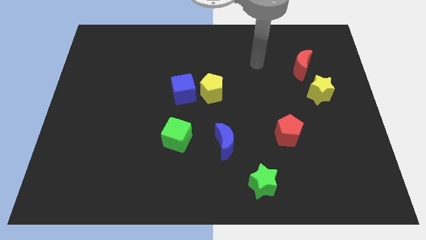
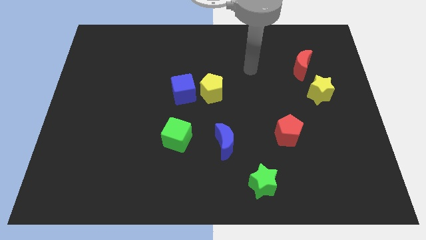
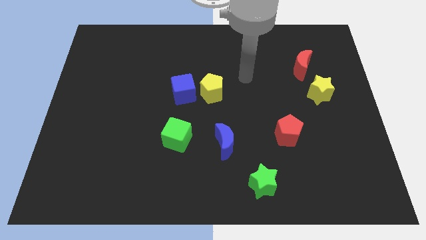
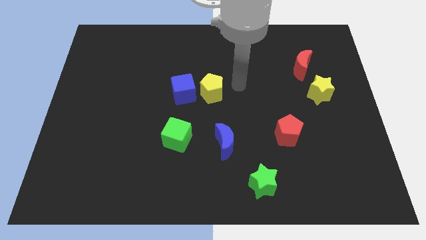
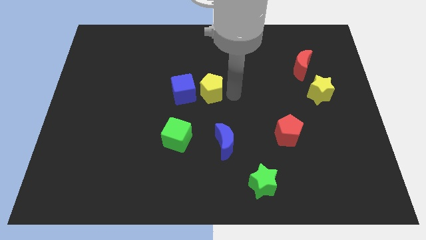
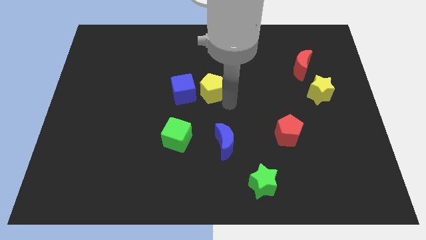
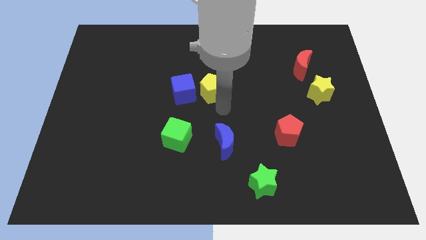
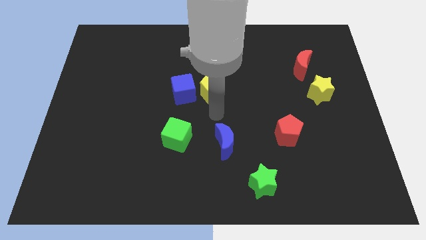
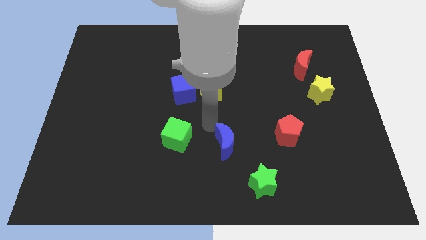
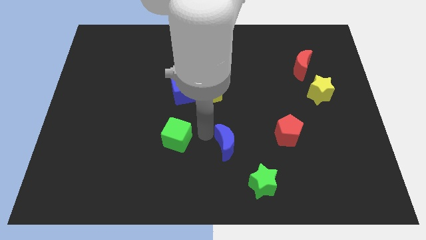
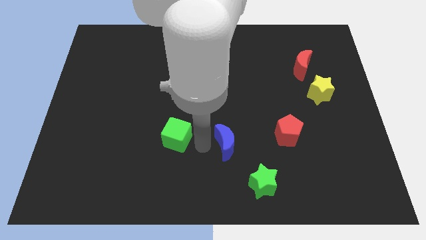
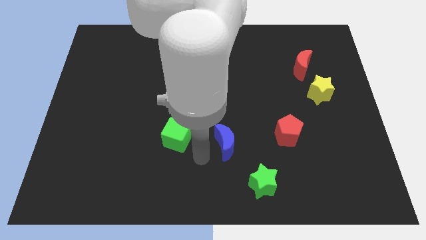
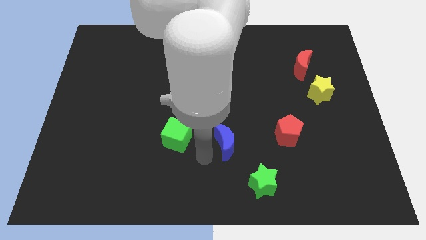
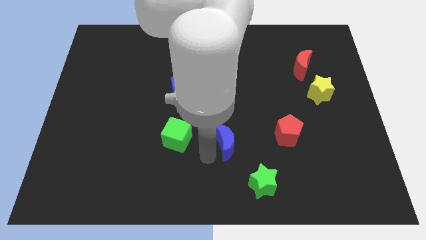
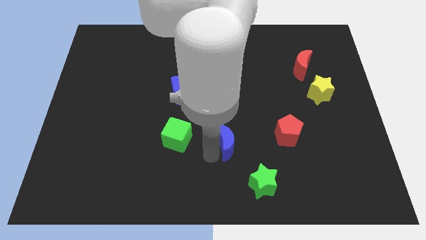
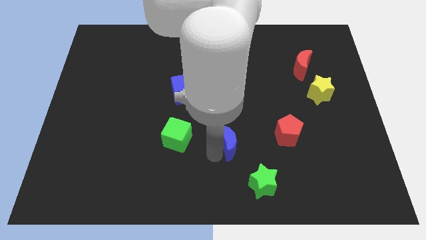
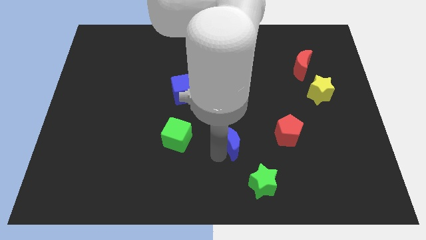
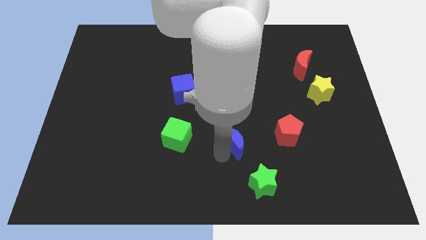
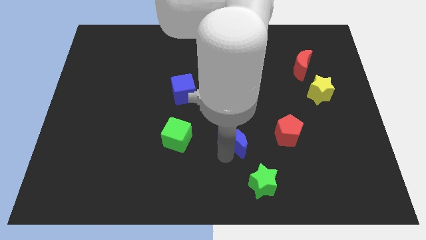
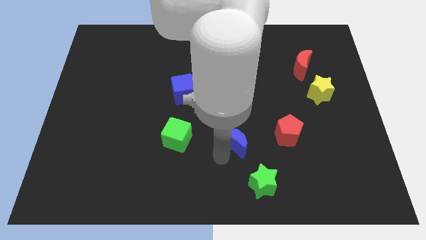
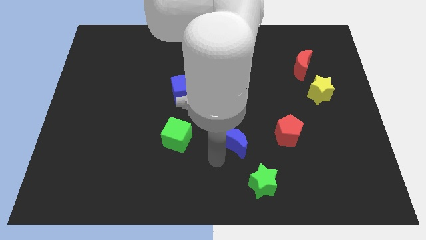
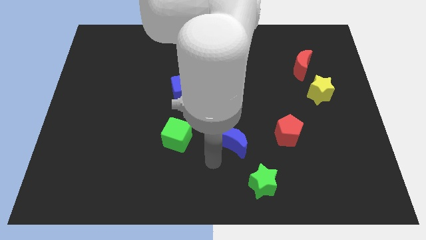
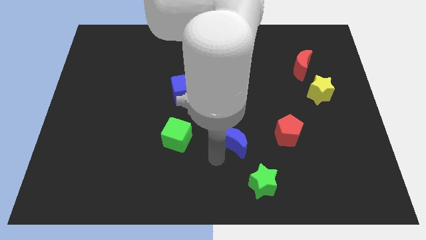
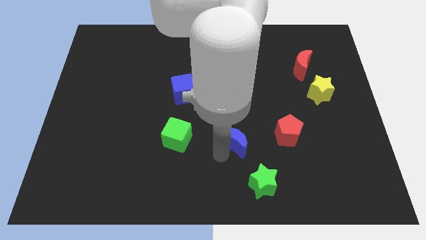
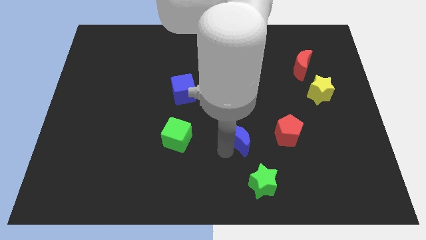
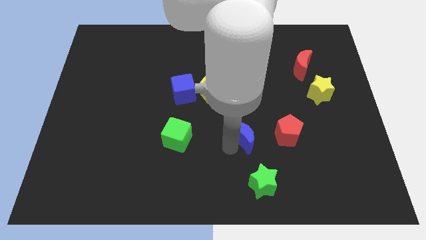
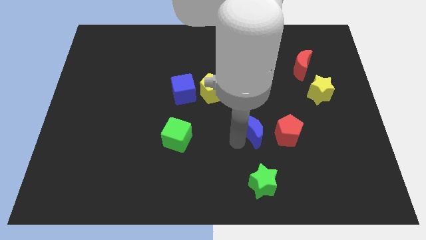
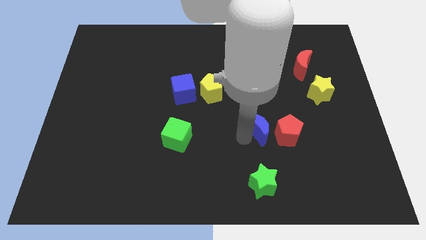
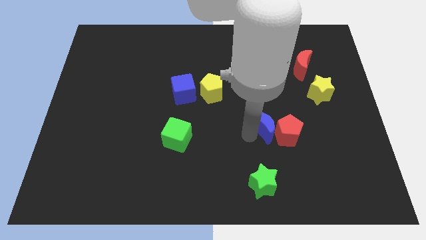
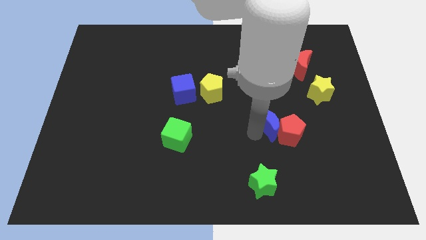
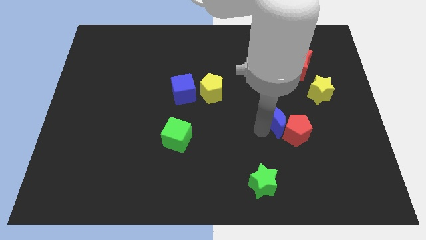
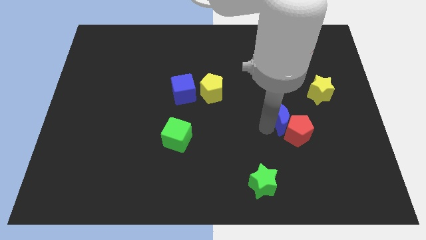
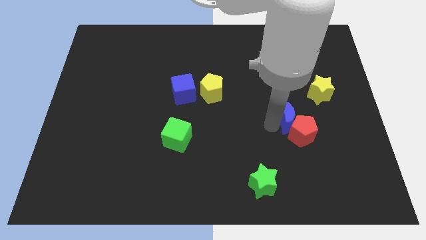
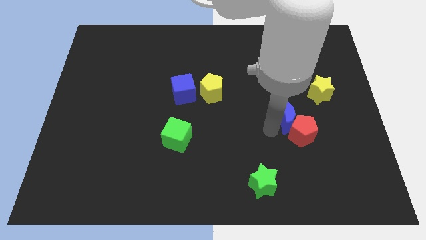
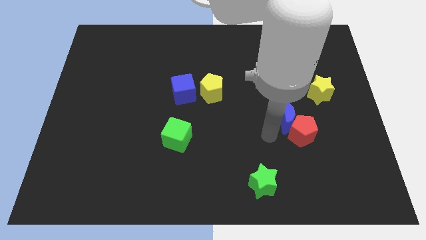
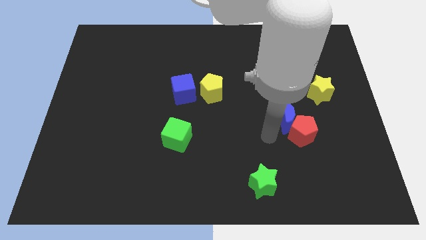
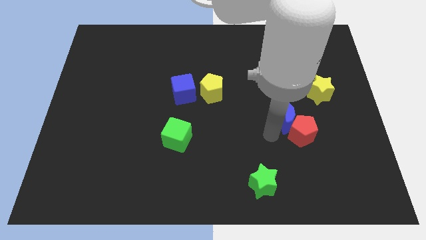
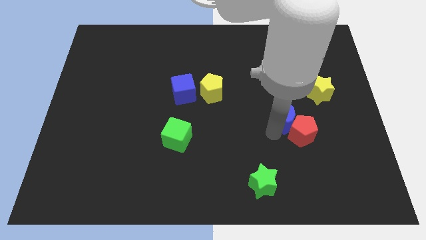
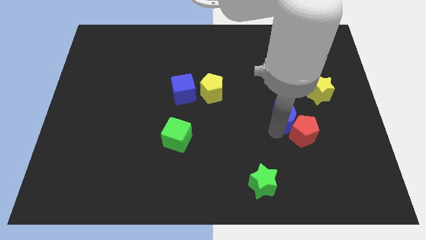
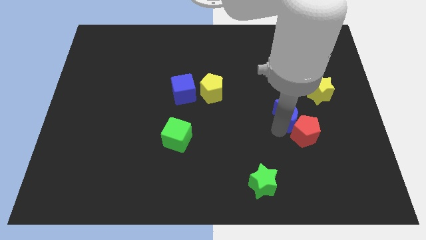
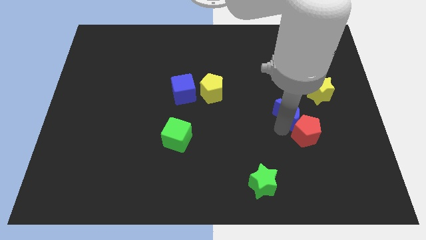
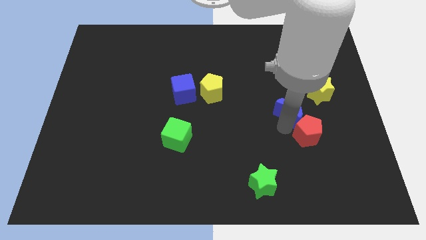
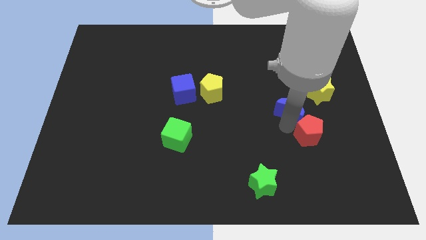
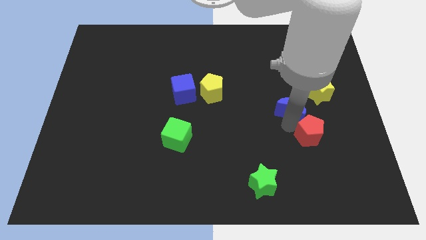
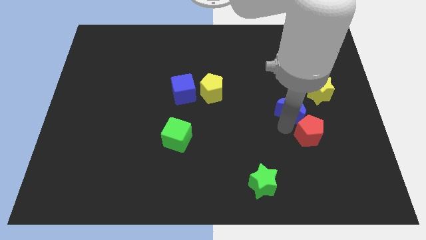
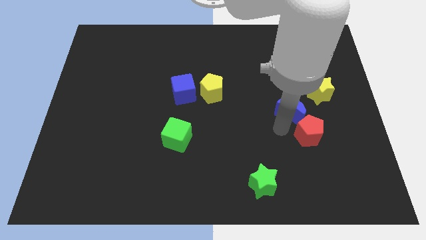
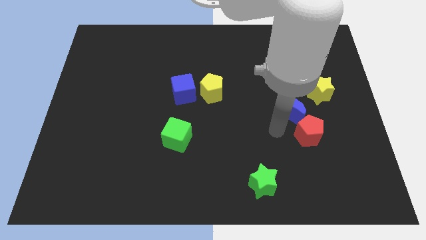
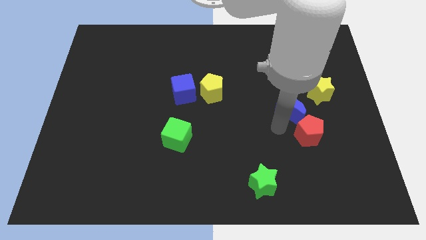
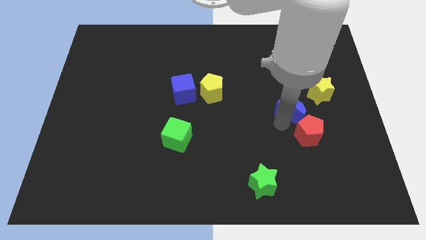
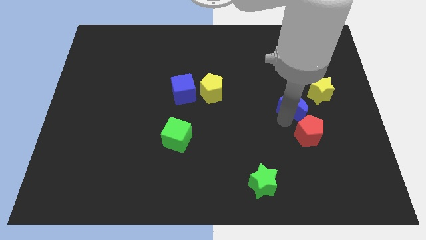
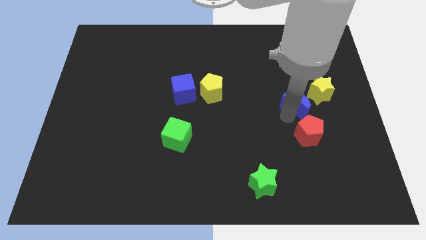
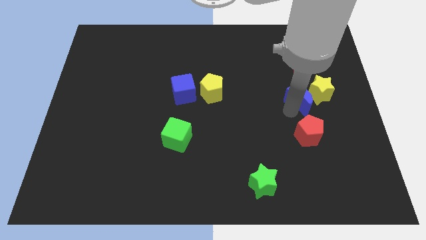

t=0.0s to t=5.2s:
push the blue moon close to the yellow star

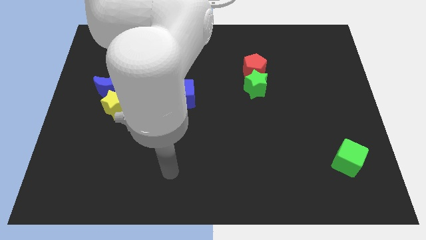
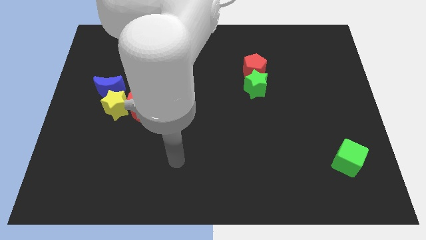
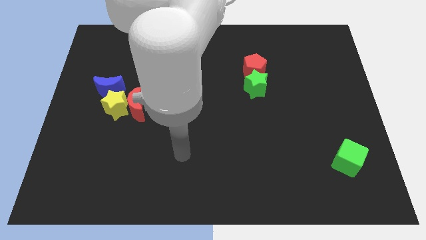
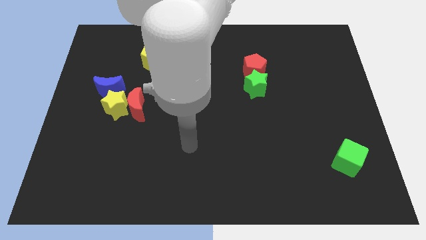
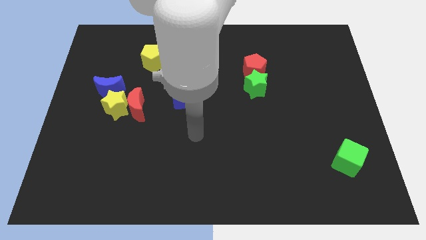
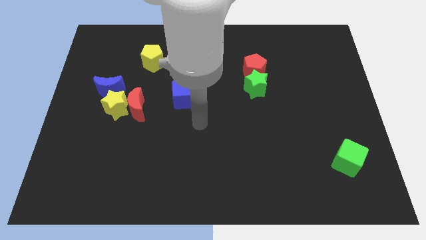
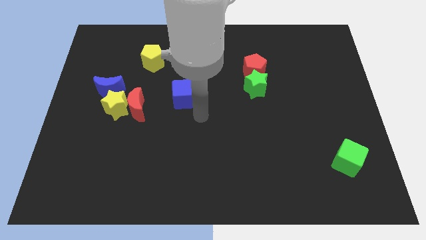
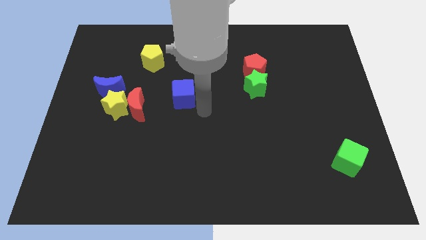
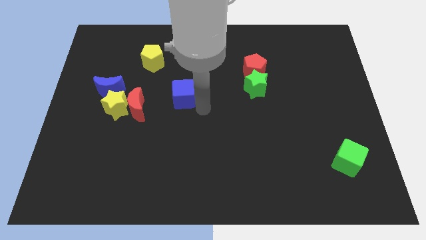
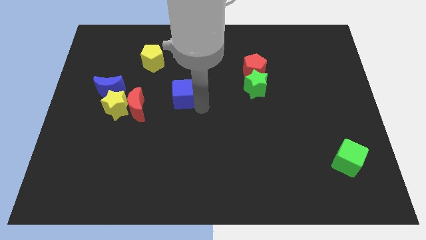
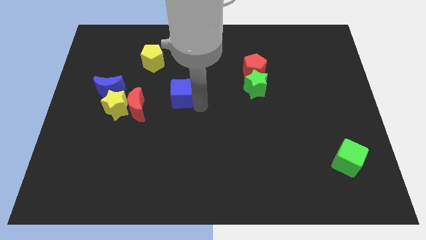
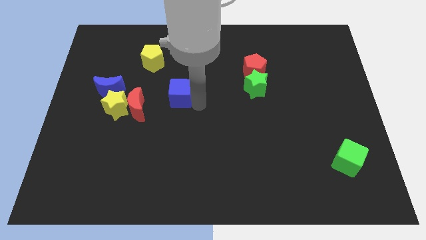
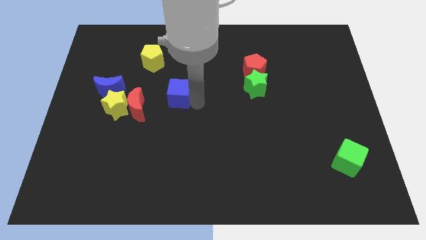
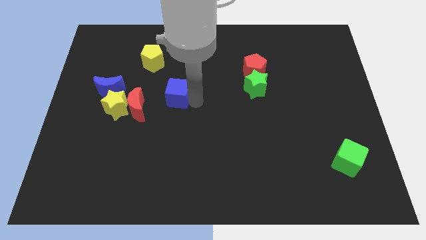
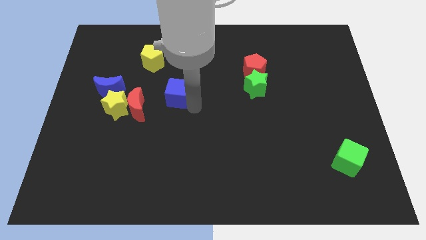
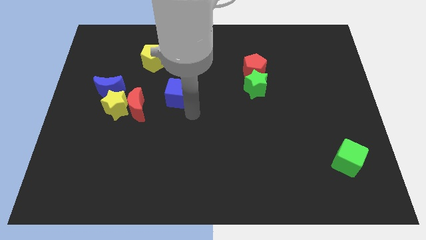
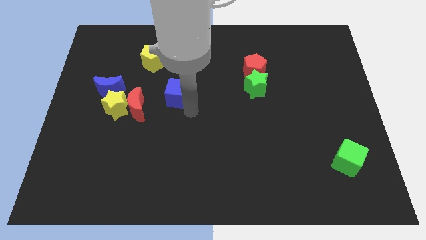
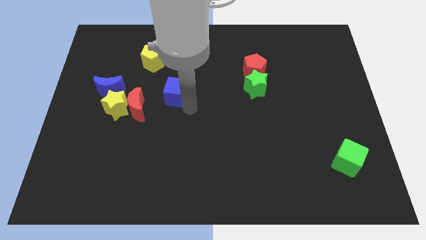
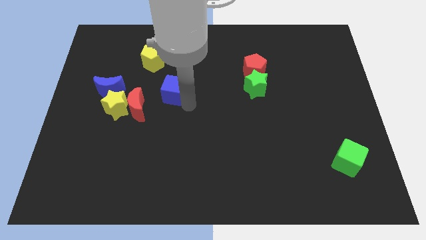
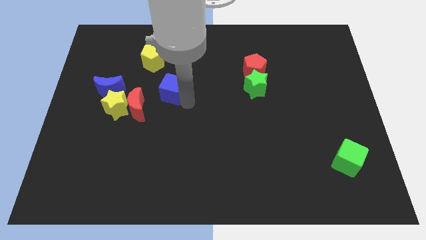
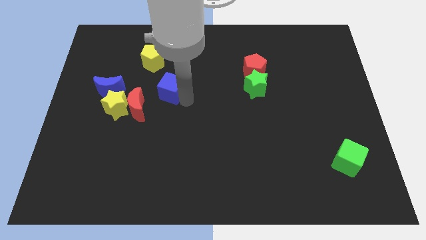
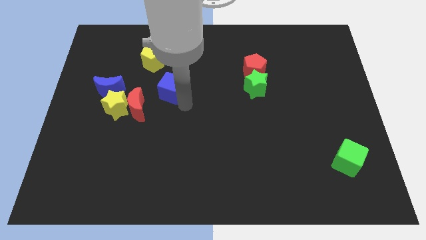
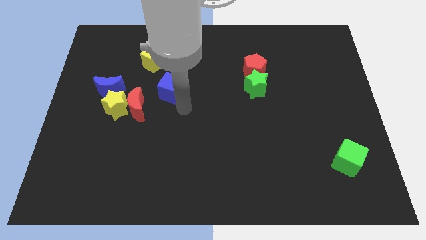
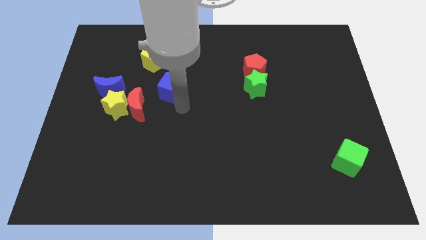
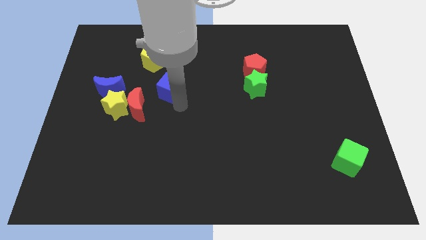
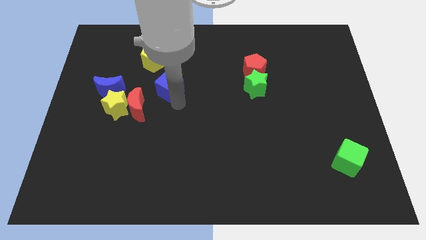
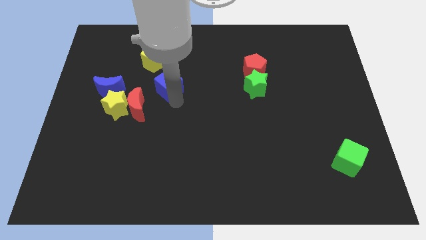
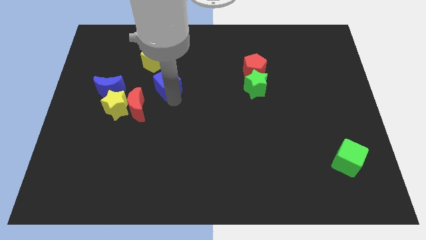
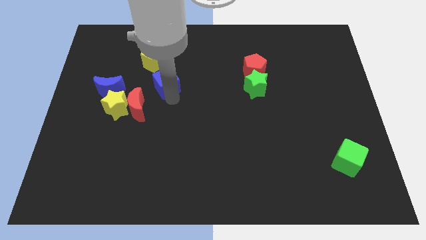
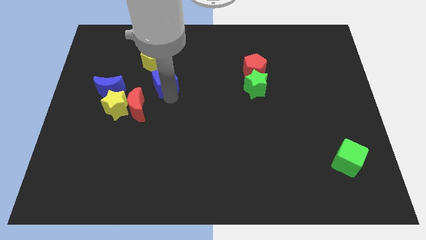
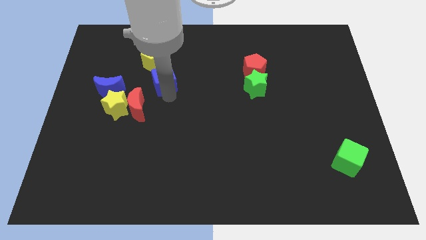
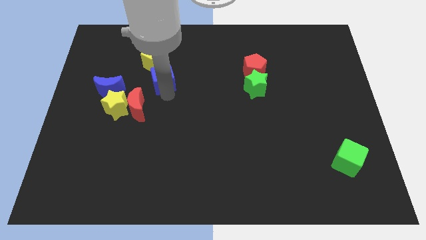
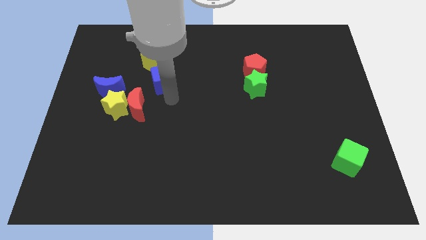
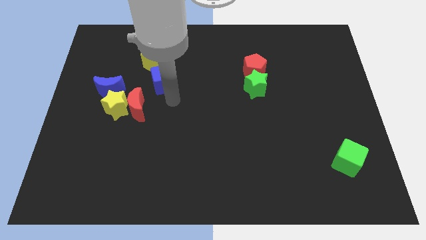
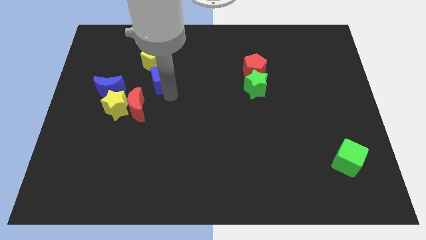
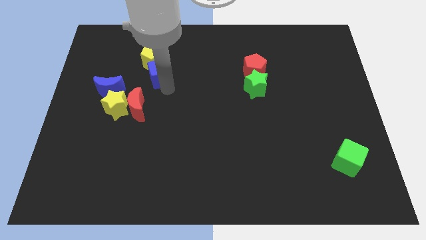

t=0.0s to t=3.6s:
move the blue cube towards the yellow pentagon
